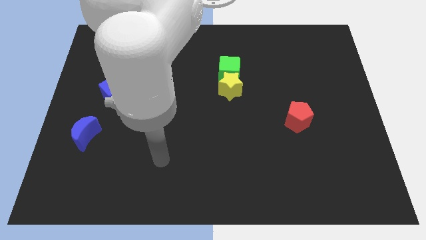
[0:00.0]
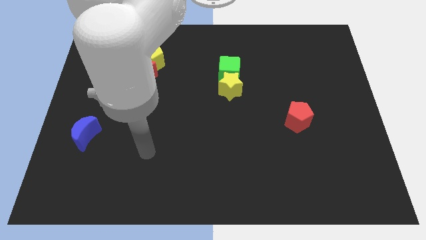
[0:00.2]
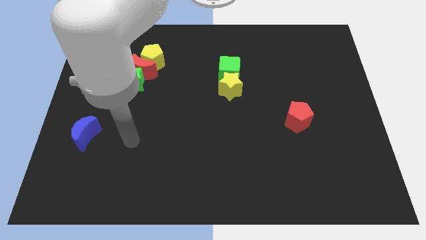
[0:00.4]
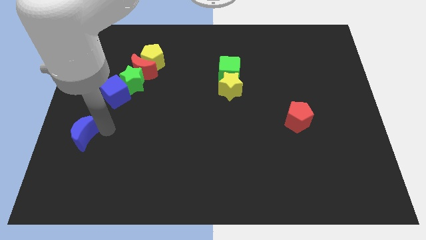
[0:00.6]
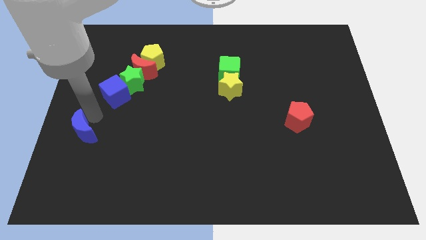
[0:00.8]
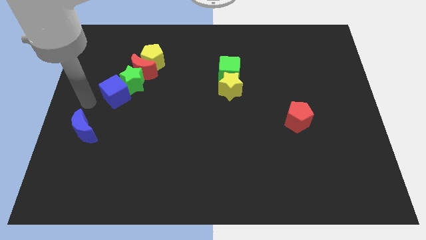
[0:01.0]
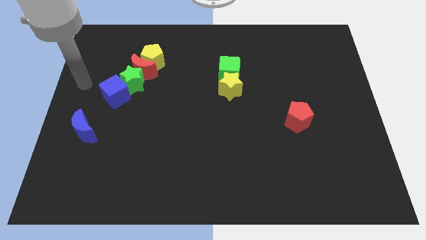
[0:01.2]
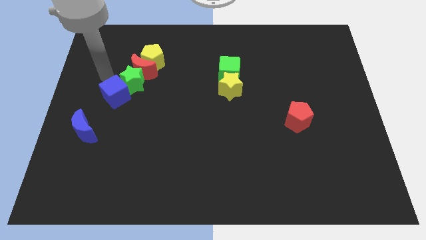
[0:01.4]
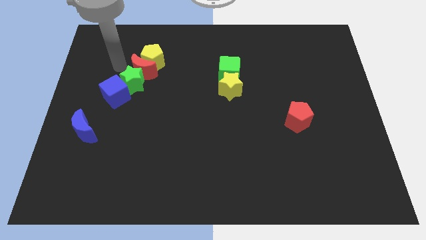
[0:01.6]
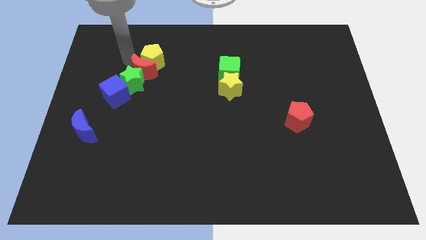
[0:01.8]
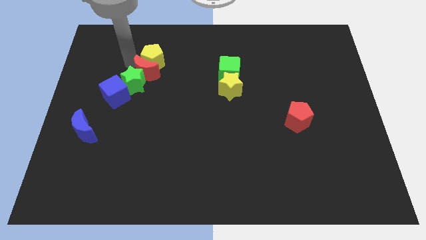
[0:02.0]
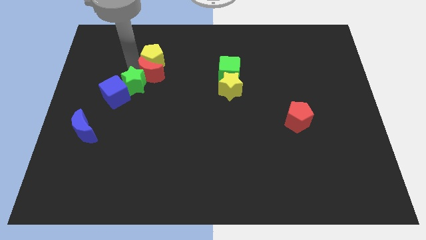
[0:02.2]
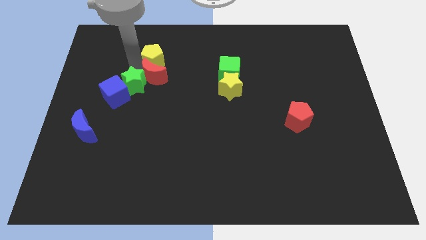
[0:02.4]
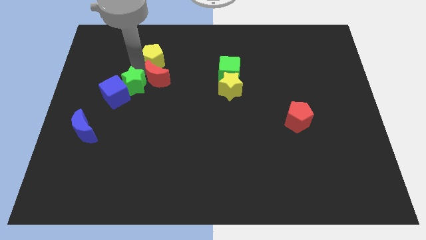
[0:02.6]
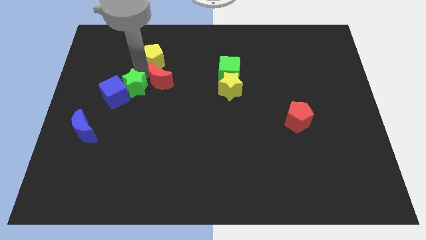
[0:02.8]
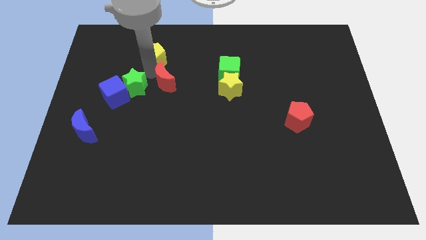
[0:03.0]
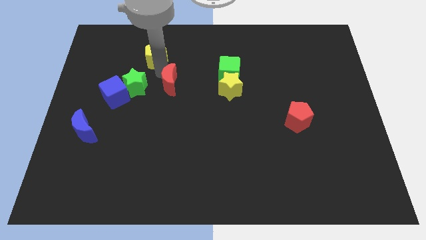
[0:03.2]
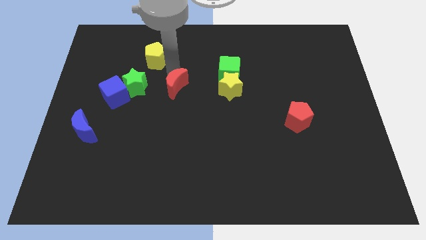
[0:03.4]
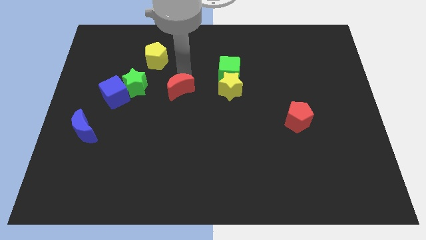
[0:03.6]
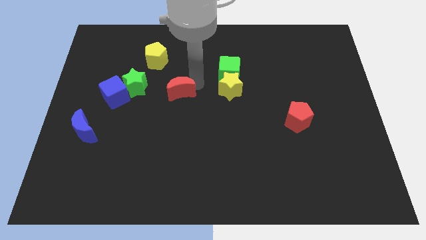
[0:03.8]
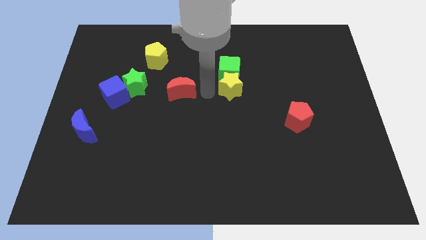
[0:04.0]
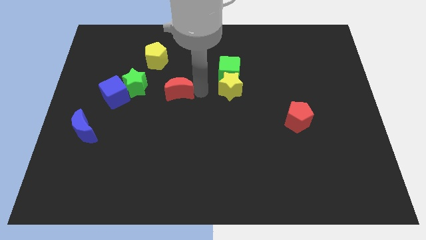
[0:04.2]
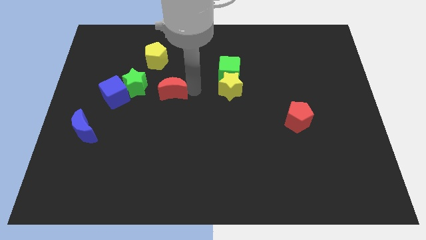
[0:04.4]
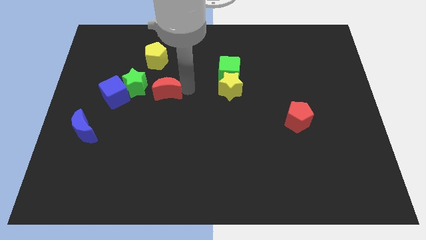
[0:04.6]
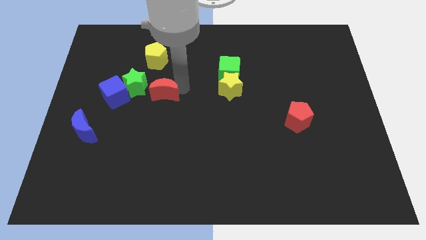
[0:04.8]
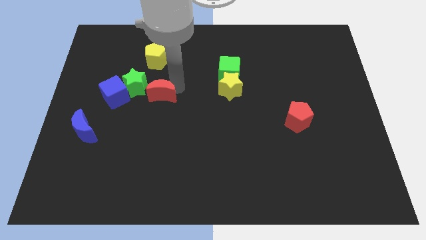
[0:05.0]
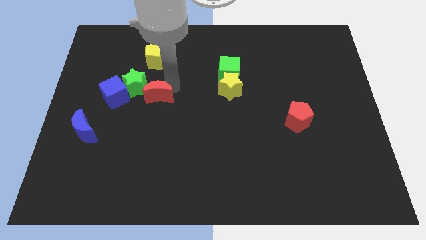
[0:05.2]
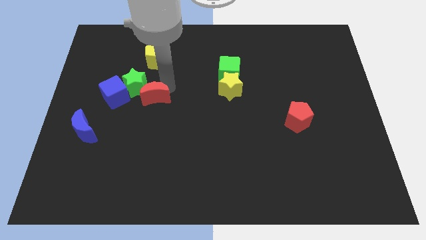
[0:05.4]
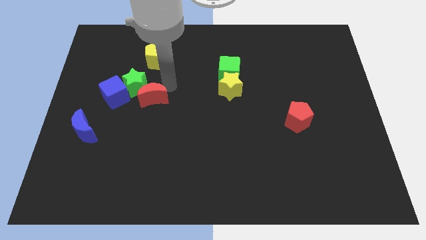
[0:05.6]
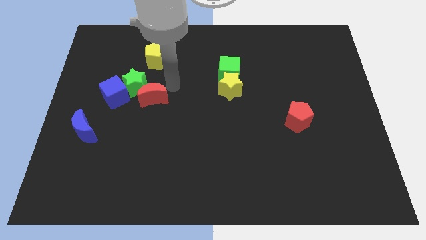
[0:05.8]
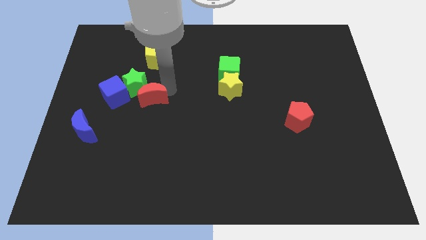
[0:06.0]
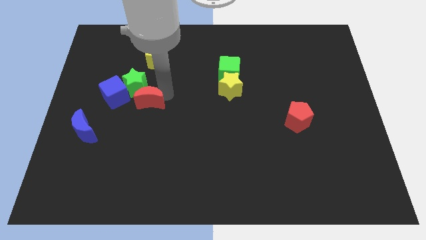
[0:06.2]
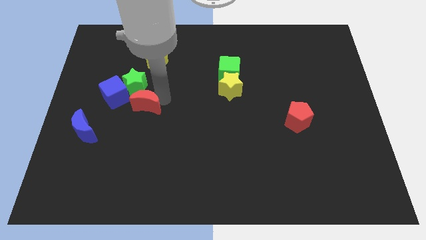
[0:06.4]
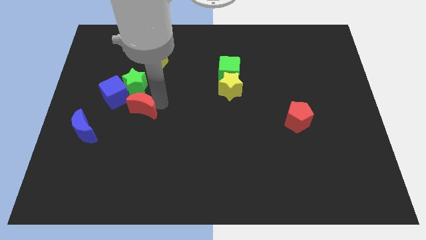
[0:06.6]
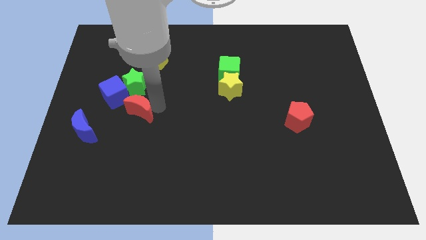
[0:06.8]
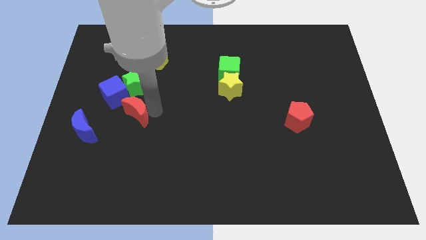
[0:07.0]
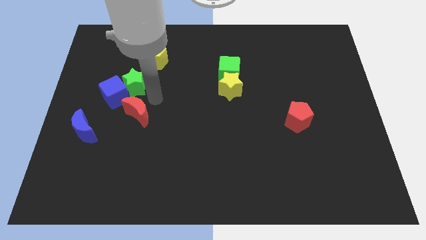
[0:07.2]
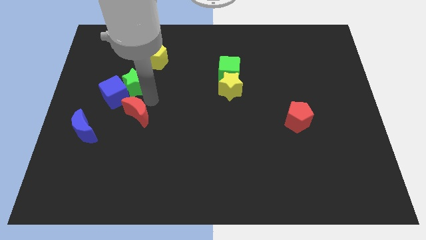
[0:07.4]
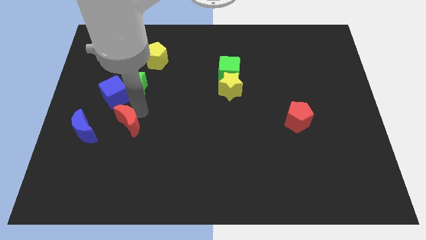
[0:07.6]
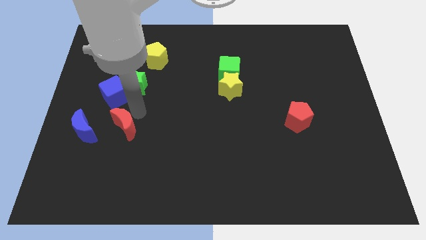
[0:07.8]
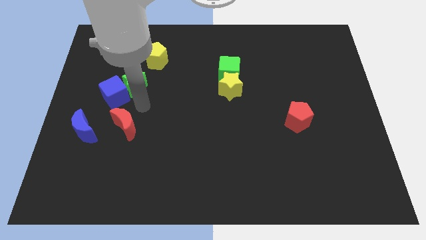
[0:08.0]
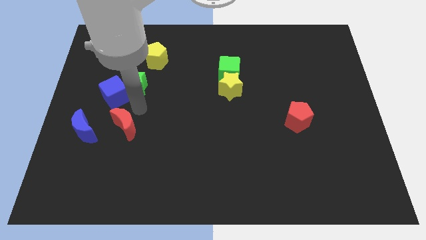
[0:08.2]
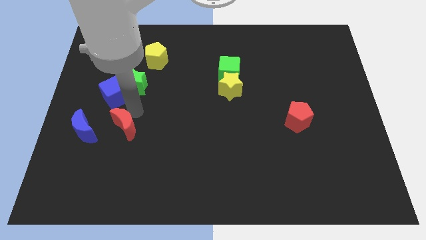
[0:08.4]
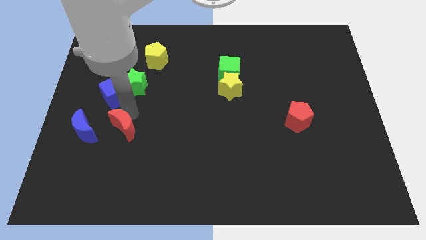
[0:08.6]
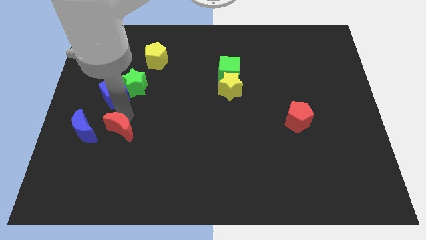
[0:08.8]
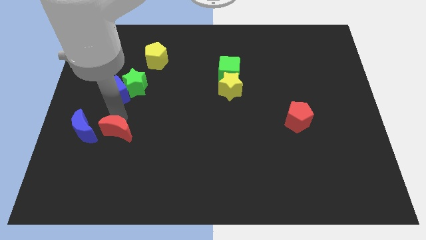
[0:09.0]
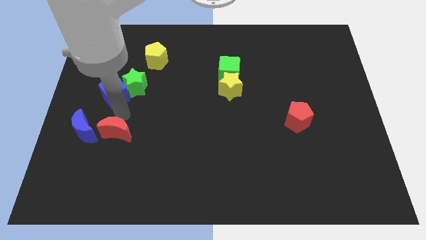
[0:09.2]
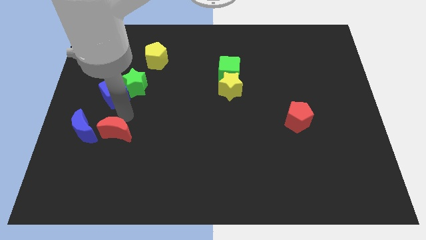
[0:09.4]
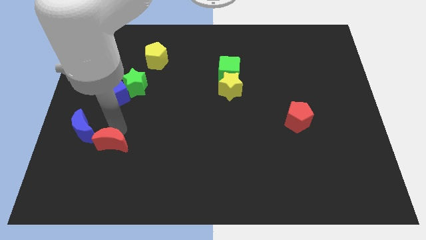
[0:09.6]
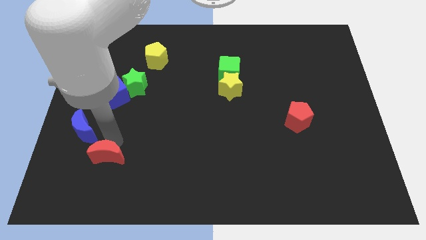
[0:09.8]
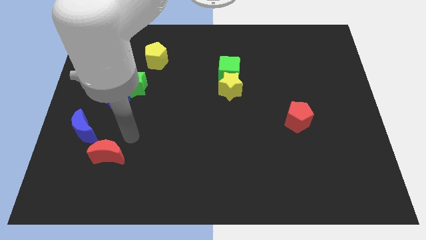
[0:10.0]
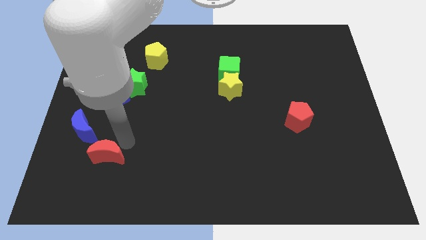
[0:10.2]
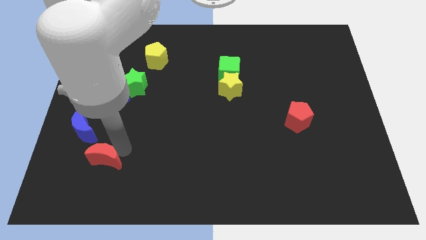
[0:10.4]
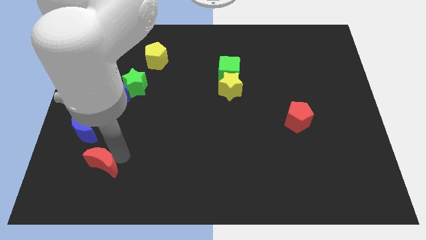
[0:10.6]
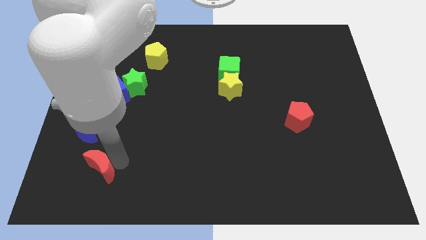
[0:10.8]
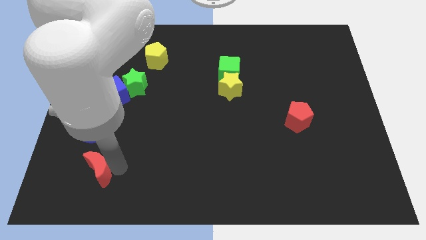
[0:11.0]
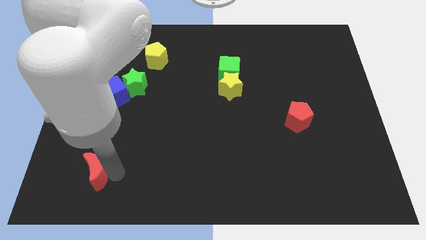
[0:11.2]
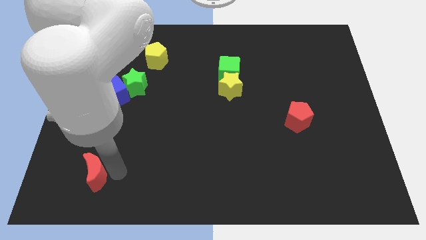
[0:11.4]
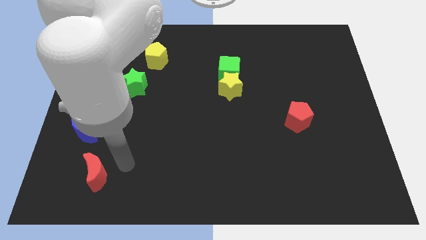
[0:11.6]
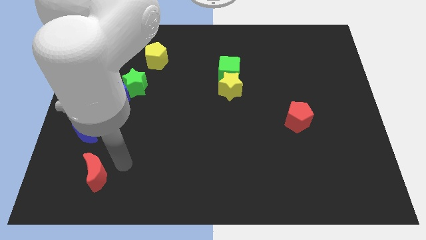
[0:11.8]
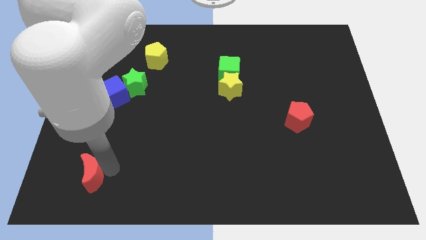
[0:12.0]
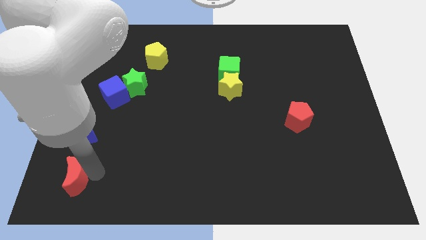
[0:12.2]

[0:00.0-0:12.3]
push the red moon to the lower left corner

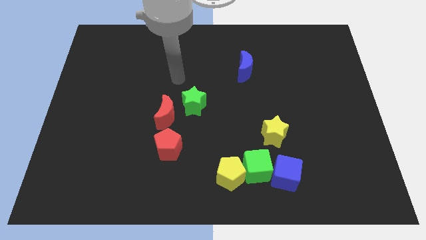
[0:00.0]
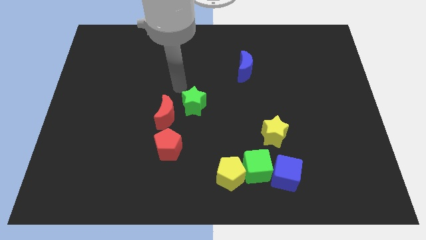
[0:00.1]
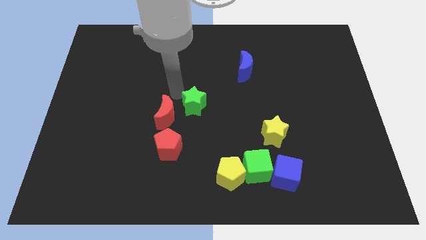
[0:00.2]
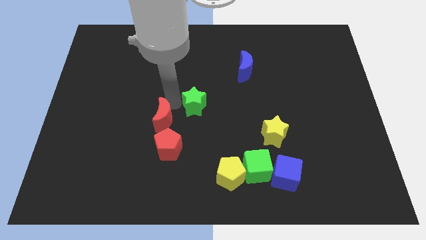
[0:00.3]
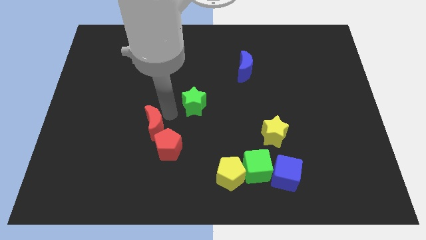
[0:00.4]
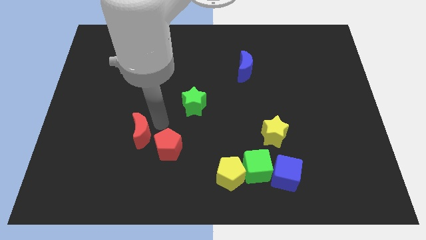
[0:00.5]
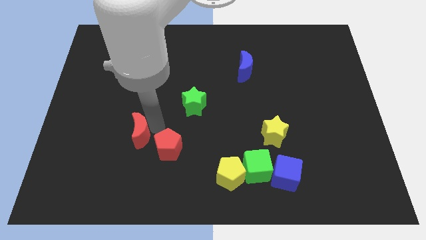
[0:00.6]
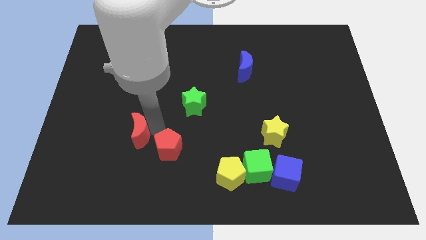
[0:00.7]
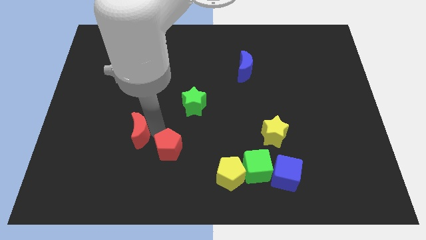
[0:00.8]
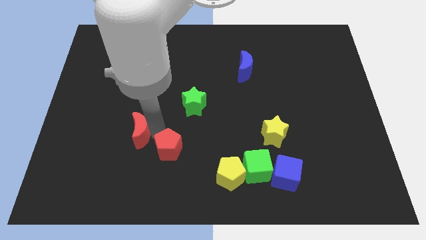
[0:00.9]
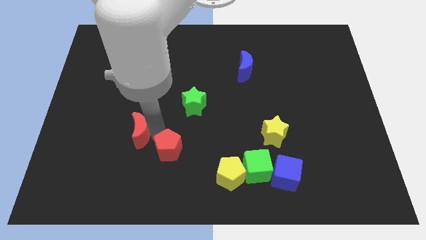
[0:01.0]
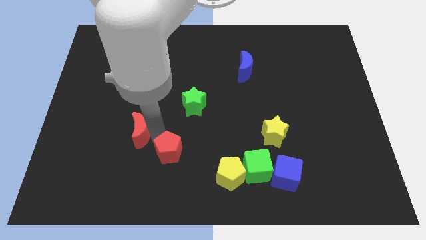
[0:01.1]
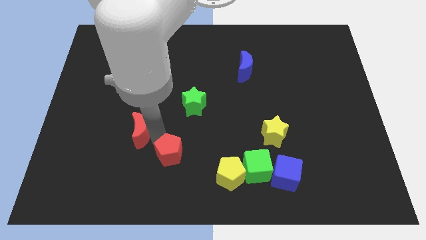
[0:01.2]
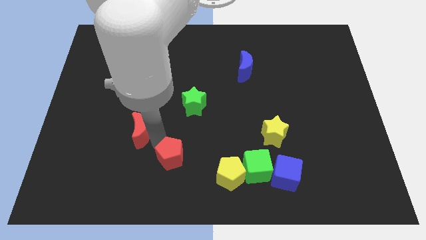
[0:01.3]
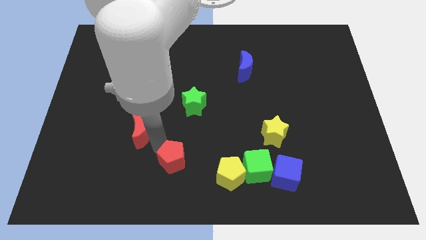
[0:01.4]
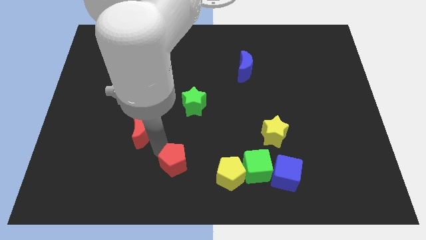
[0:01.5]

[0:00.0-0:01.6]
slide the red pentagon to the bottom
